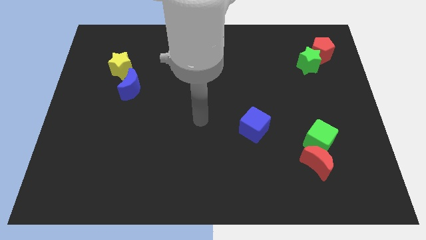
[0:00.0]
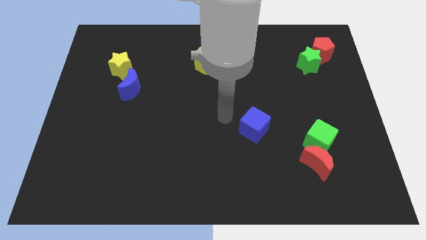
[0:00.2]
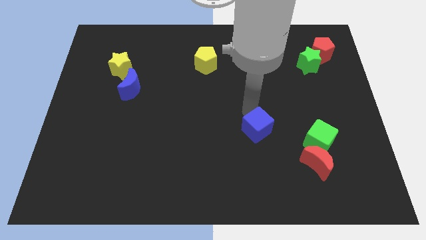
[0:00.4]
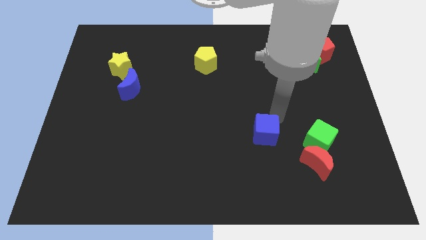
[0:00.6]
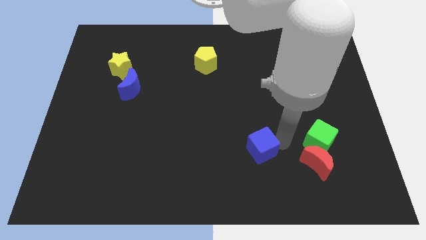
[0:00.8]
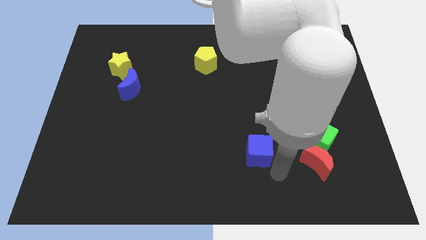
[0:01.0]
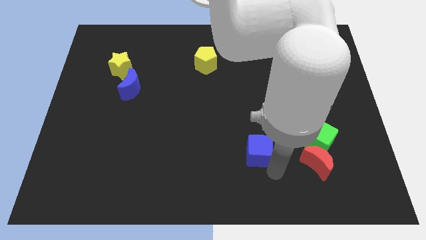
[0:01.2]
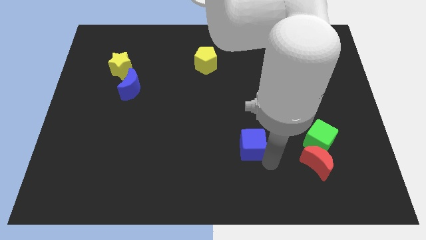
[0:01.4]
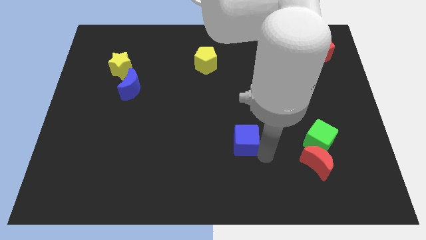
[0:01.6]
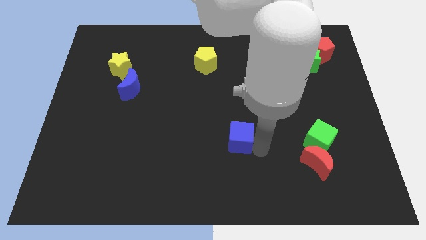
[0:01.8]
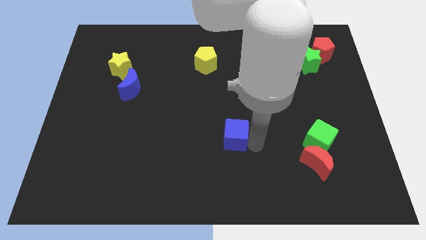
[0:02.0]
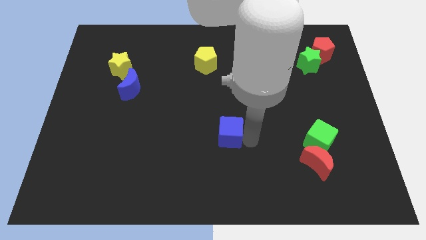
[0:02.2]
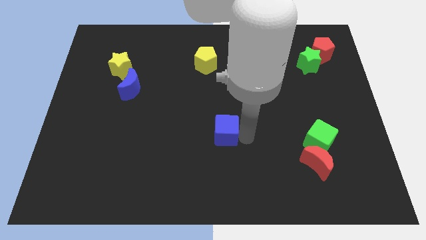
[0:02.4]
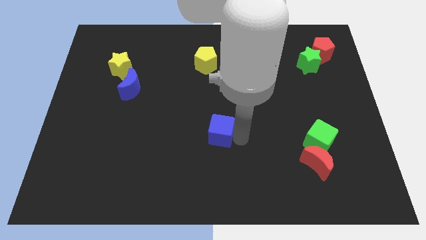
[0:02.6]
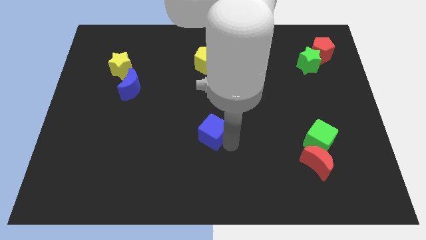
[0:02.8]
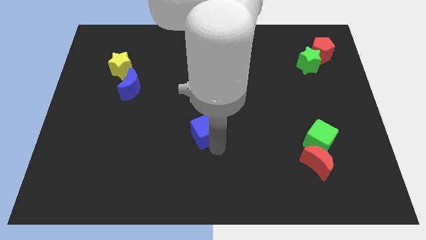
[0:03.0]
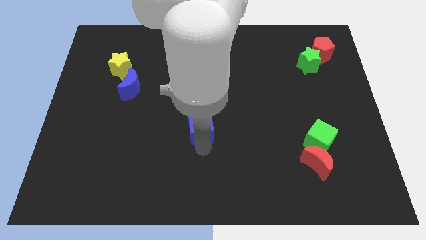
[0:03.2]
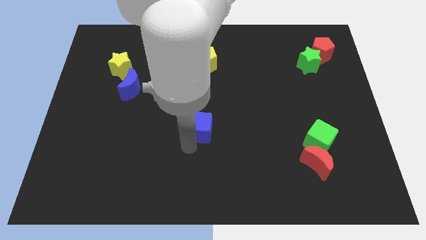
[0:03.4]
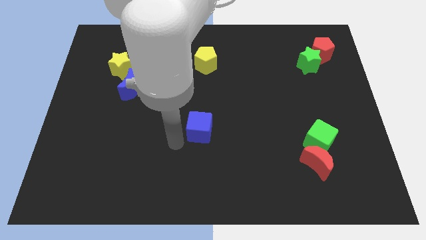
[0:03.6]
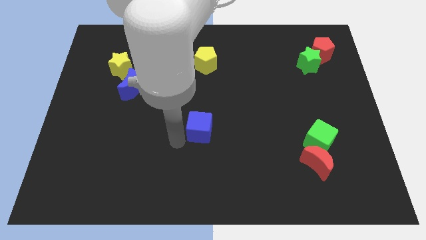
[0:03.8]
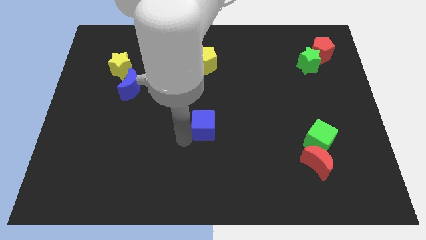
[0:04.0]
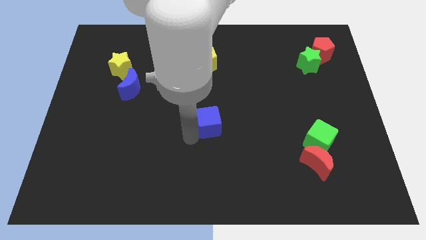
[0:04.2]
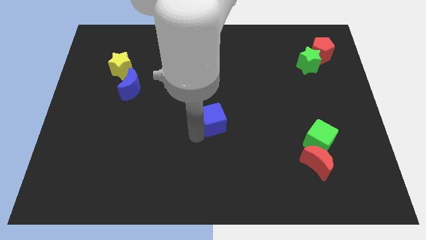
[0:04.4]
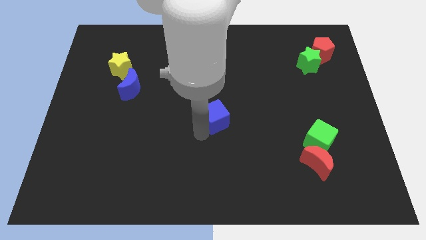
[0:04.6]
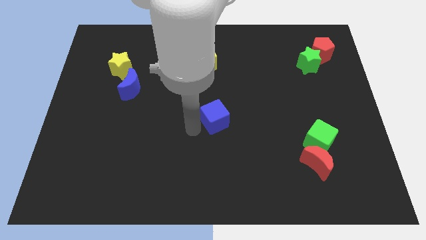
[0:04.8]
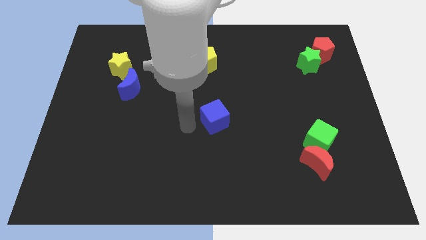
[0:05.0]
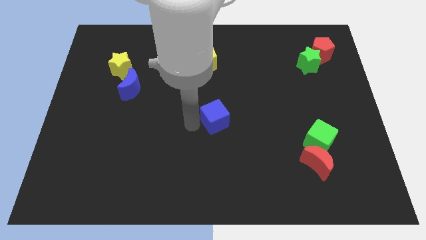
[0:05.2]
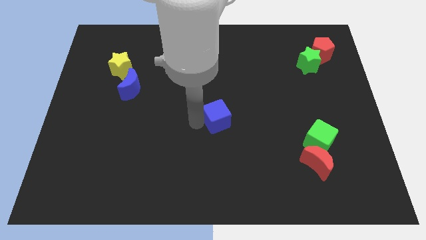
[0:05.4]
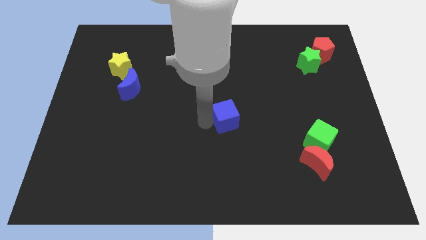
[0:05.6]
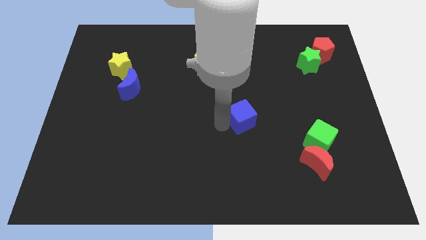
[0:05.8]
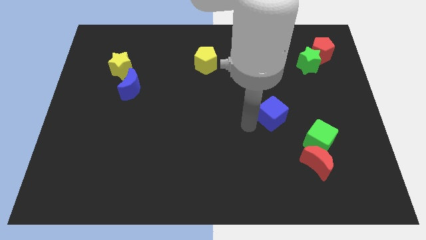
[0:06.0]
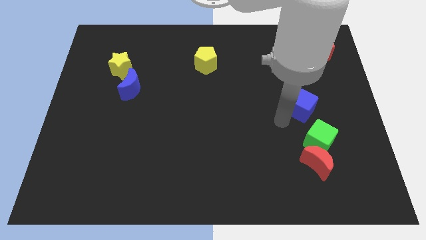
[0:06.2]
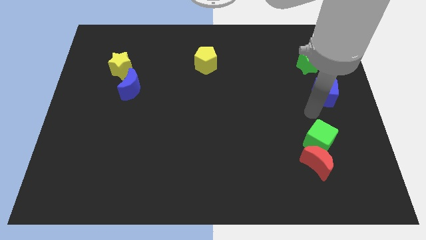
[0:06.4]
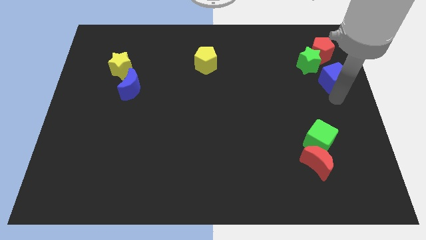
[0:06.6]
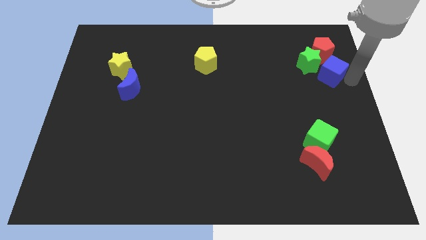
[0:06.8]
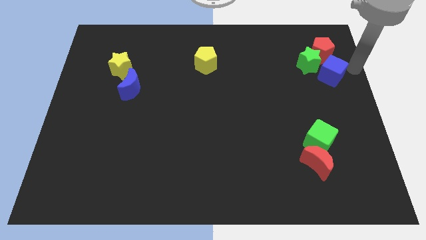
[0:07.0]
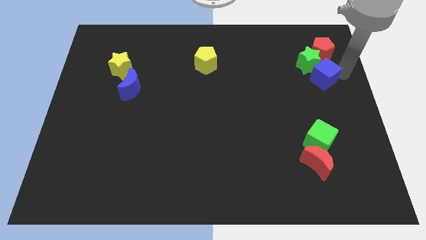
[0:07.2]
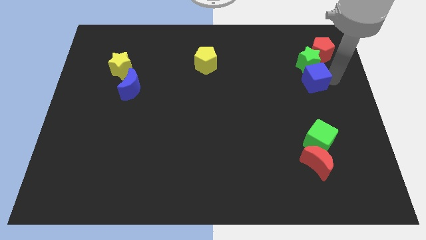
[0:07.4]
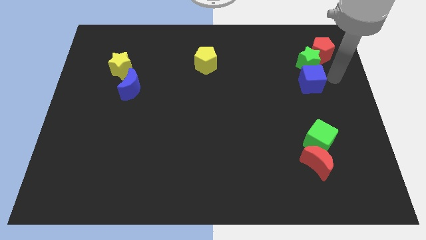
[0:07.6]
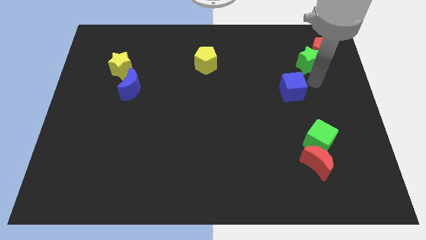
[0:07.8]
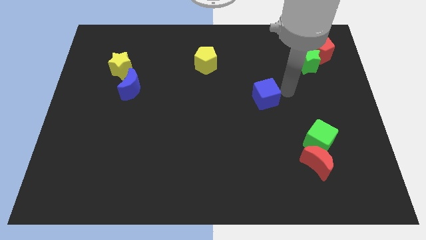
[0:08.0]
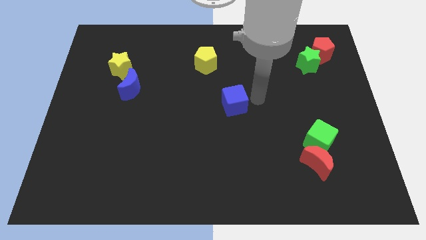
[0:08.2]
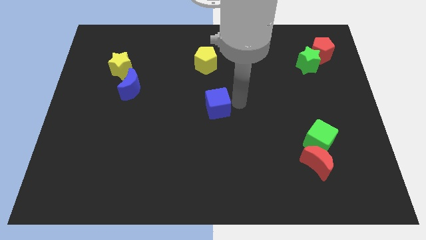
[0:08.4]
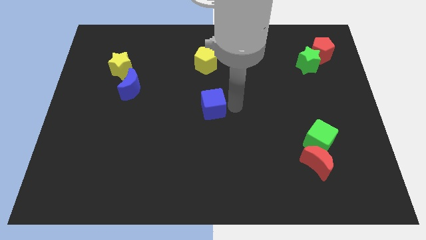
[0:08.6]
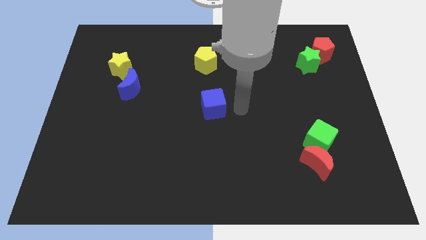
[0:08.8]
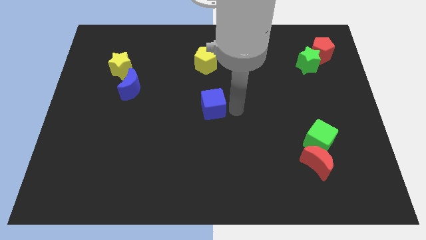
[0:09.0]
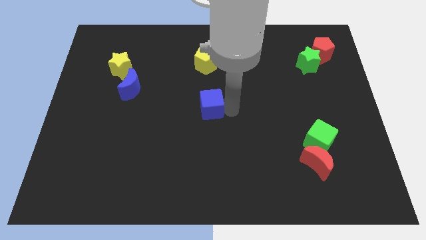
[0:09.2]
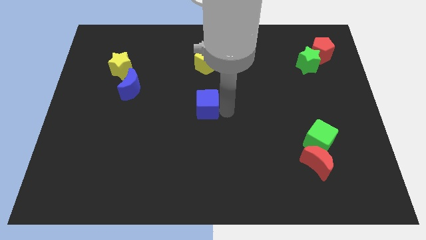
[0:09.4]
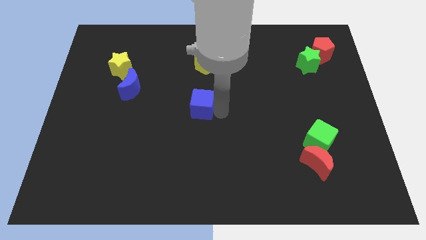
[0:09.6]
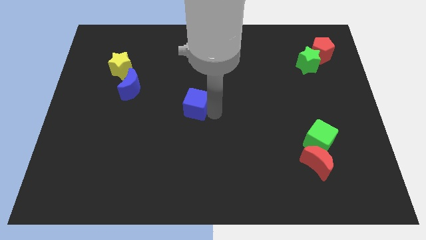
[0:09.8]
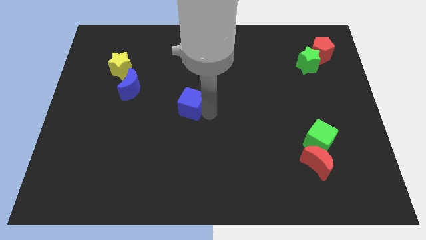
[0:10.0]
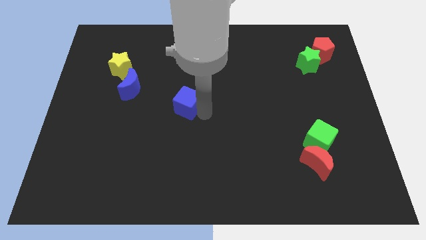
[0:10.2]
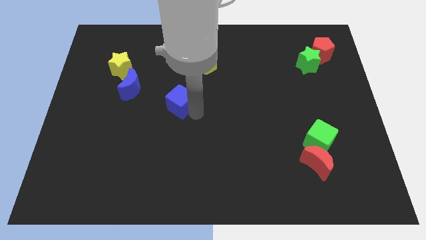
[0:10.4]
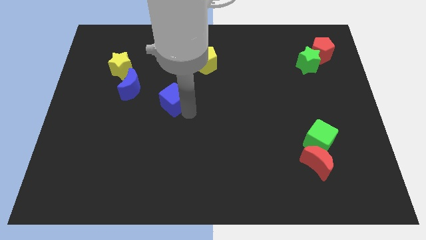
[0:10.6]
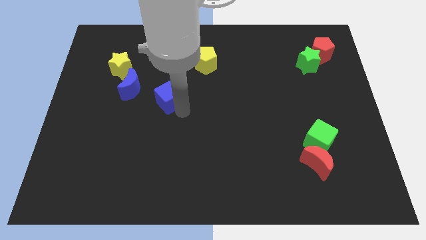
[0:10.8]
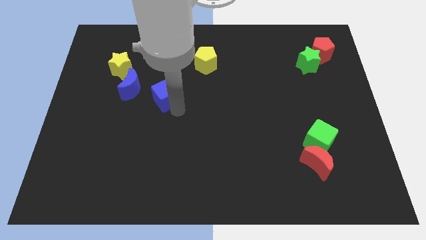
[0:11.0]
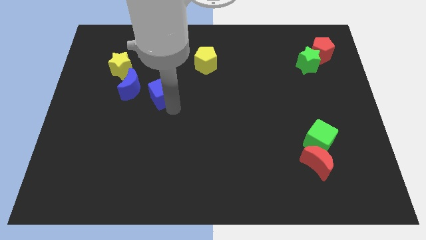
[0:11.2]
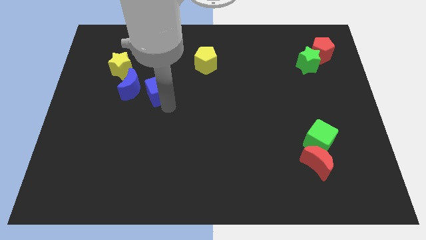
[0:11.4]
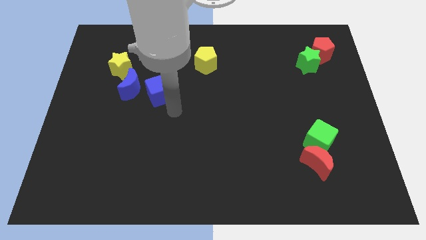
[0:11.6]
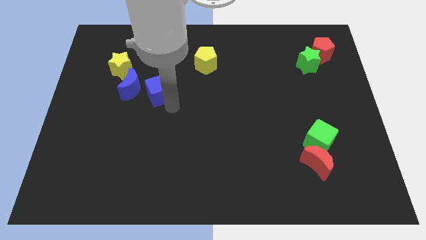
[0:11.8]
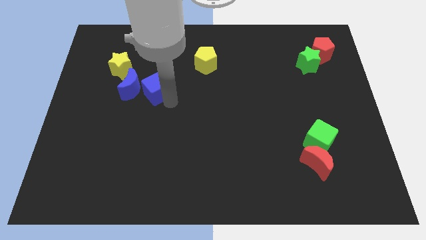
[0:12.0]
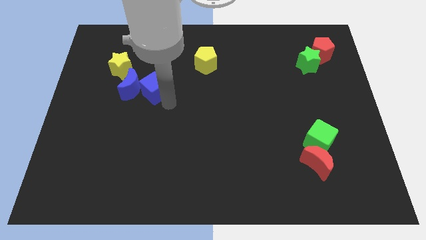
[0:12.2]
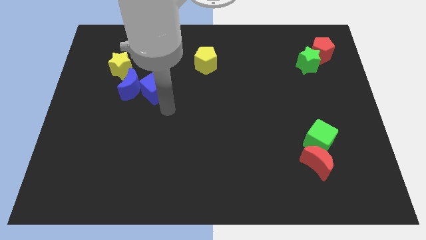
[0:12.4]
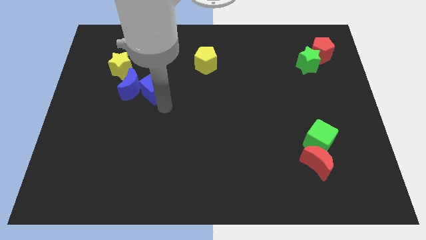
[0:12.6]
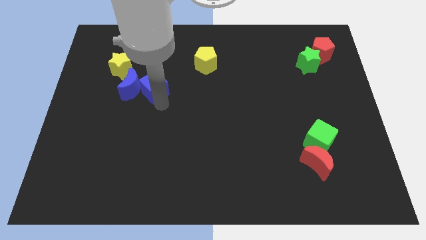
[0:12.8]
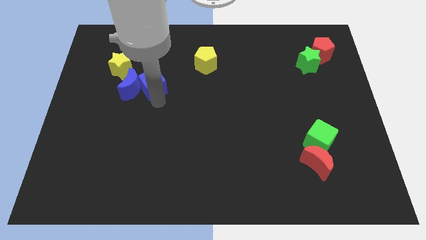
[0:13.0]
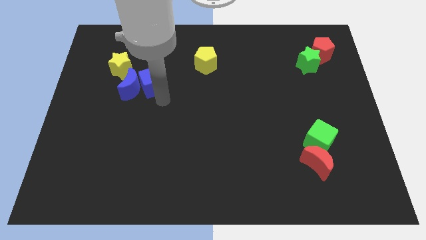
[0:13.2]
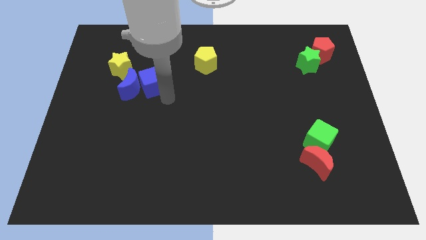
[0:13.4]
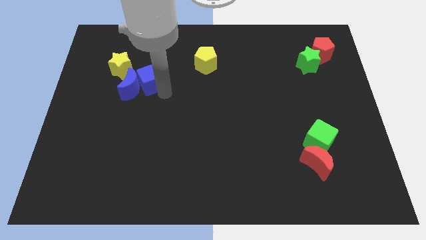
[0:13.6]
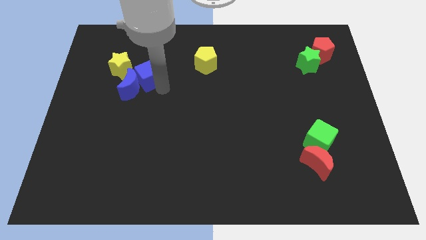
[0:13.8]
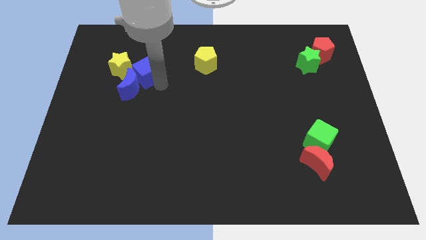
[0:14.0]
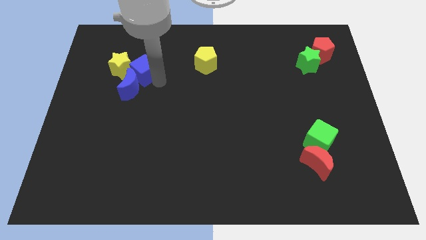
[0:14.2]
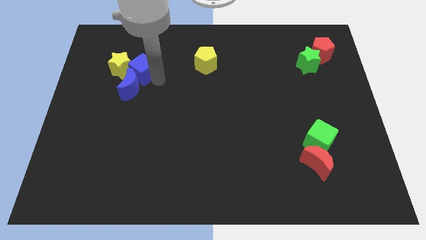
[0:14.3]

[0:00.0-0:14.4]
move the blue cube to the yellow star
